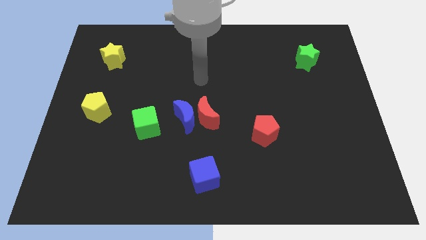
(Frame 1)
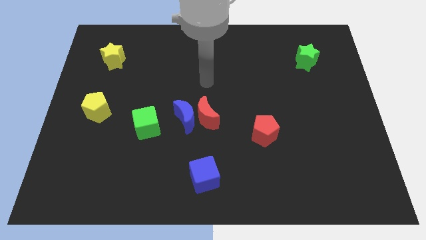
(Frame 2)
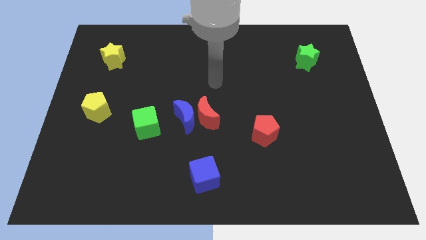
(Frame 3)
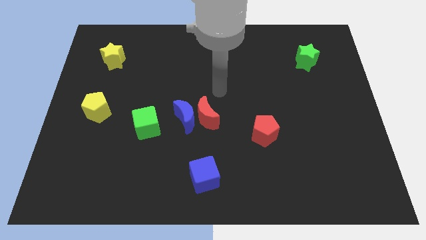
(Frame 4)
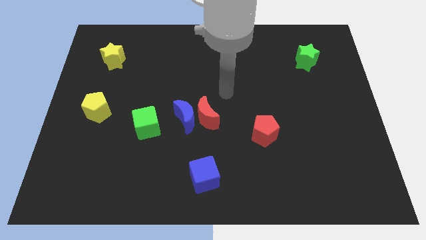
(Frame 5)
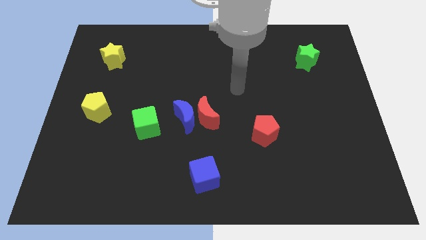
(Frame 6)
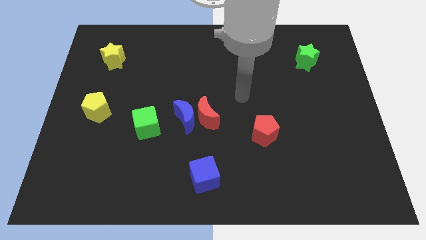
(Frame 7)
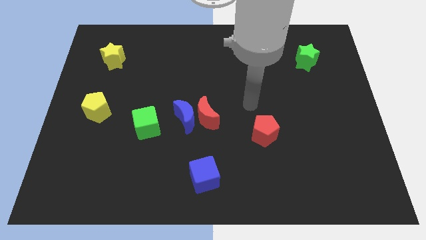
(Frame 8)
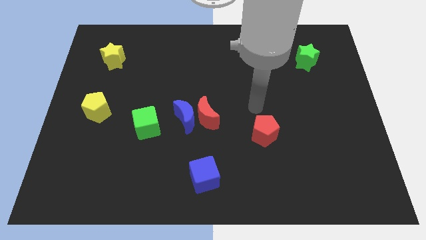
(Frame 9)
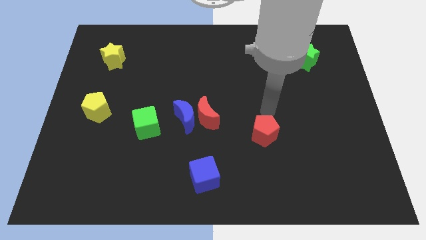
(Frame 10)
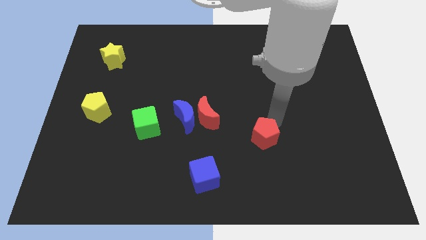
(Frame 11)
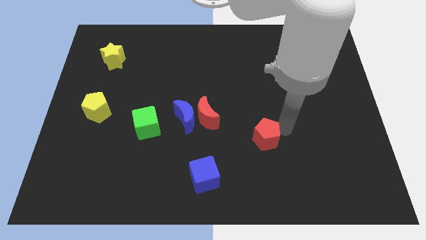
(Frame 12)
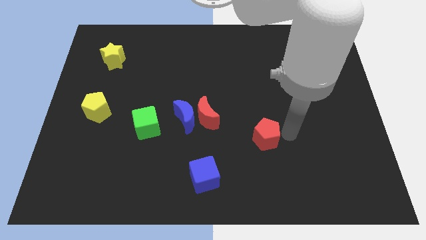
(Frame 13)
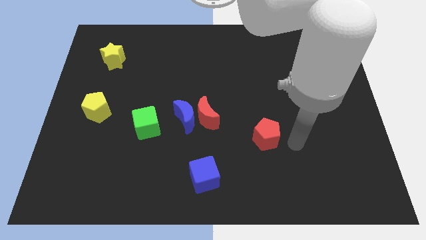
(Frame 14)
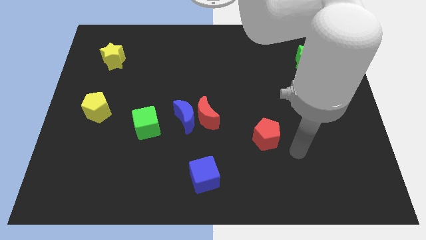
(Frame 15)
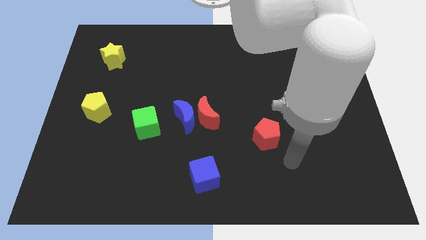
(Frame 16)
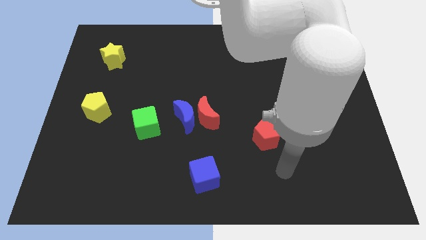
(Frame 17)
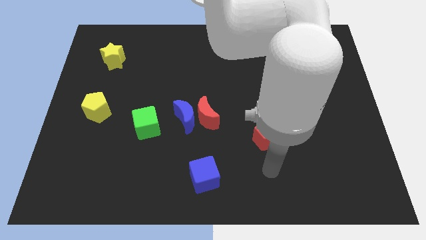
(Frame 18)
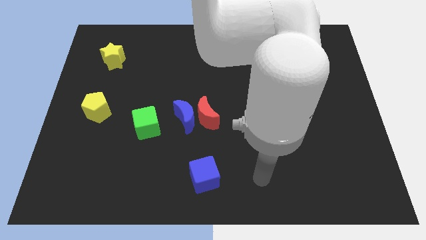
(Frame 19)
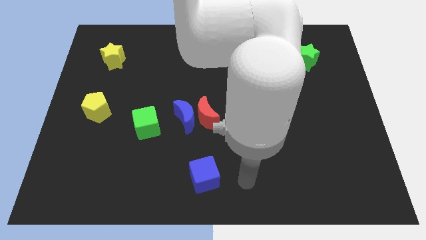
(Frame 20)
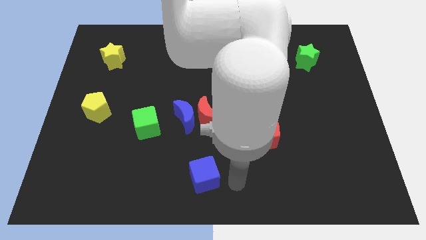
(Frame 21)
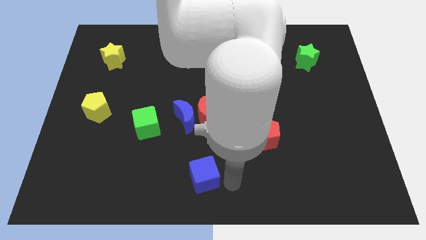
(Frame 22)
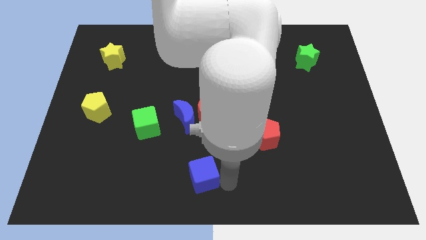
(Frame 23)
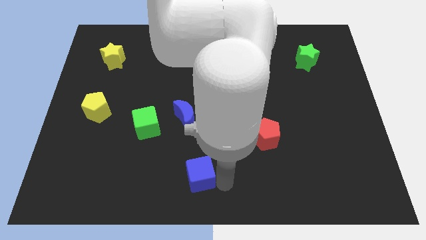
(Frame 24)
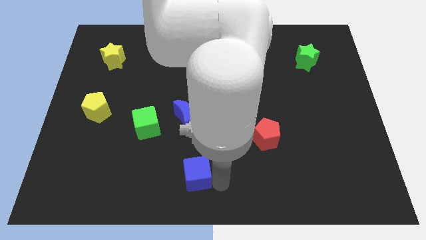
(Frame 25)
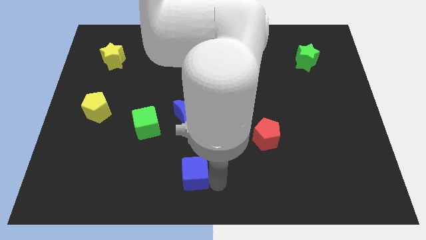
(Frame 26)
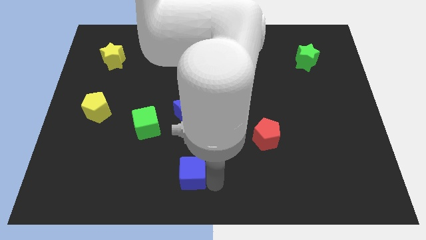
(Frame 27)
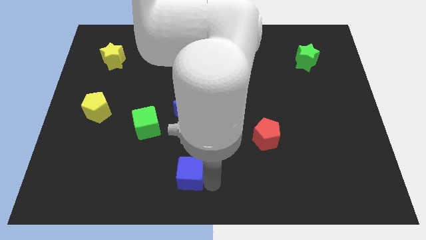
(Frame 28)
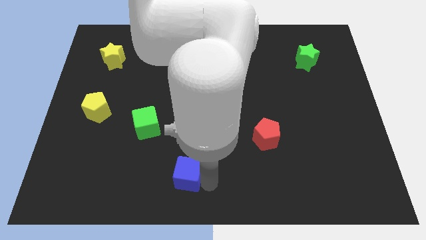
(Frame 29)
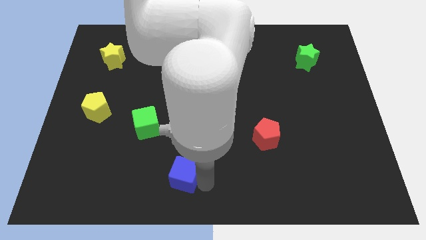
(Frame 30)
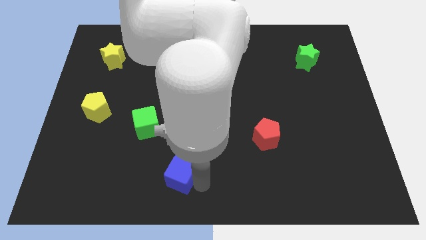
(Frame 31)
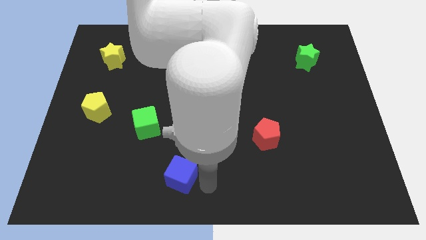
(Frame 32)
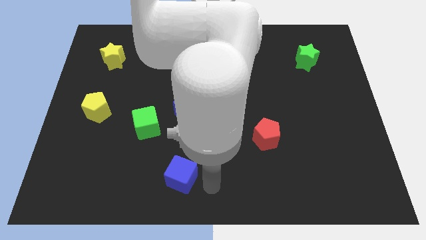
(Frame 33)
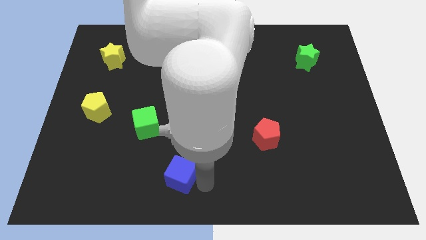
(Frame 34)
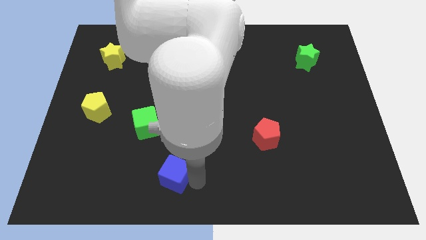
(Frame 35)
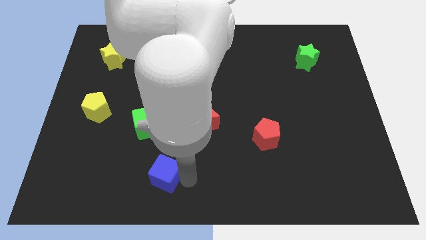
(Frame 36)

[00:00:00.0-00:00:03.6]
slide the blue cube somewhat left

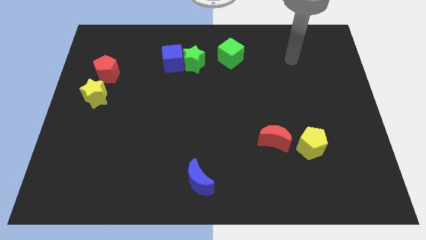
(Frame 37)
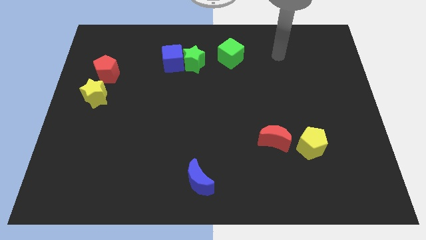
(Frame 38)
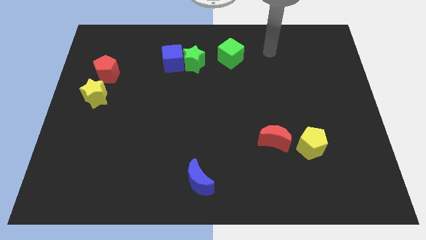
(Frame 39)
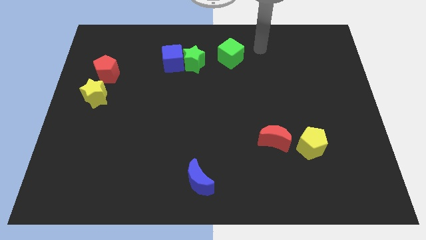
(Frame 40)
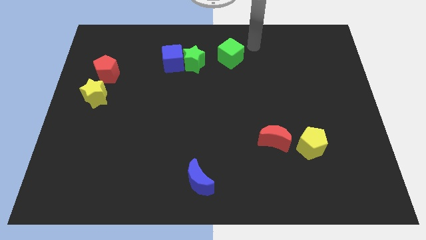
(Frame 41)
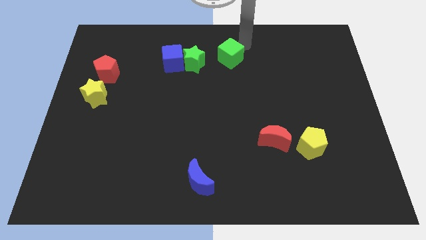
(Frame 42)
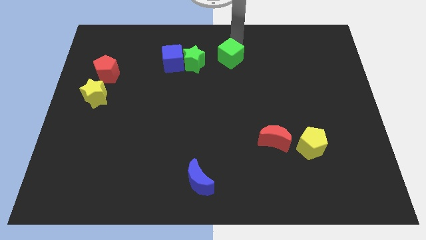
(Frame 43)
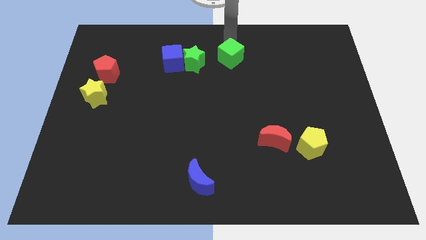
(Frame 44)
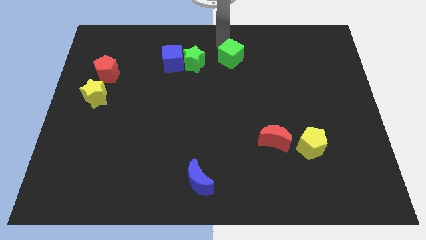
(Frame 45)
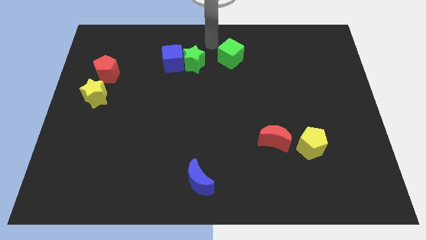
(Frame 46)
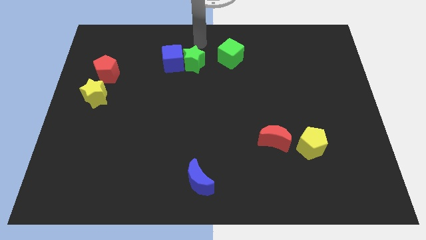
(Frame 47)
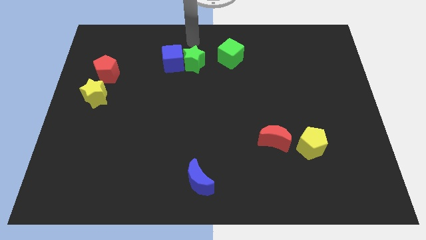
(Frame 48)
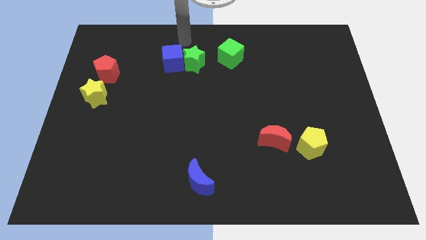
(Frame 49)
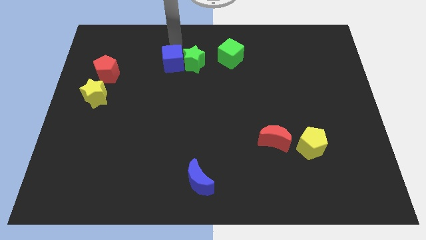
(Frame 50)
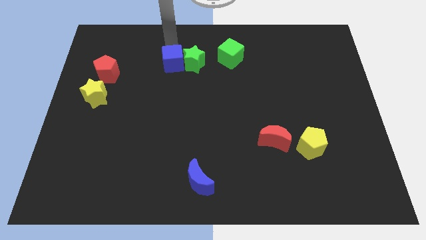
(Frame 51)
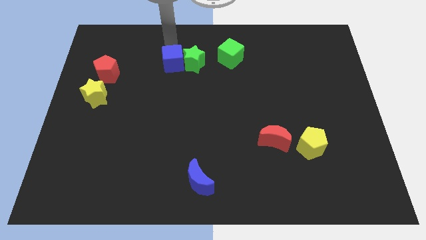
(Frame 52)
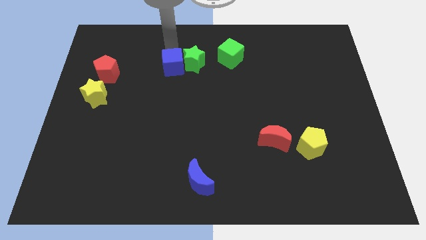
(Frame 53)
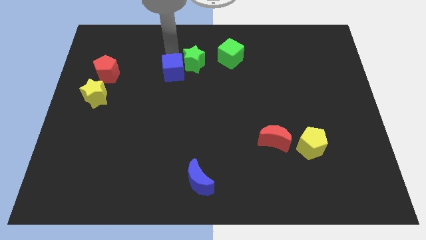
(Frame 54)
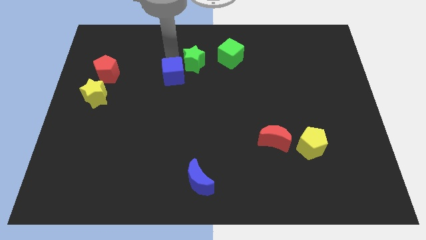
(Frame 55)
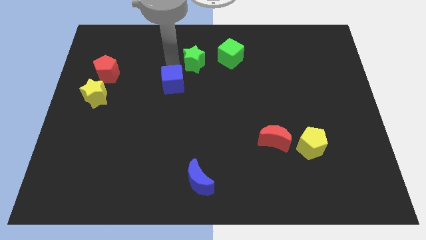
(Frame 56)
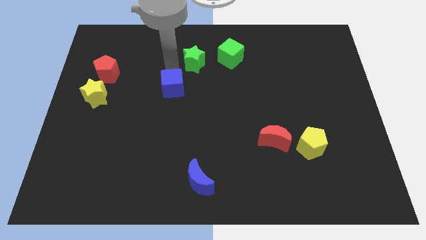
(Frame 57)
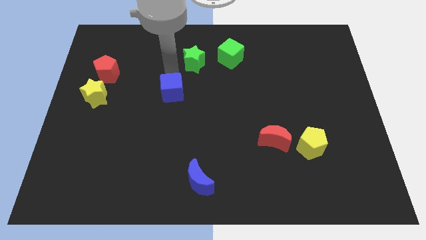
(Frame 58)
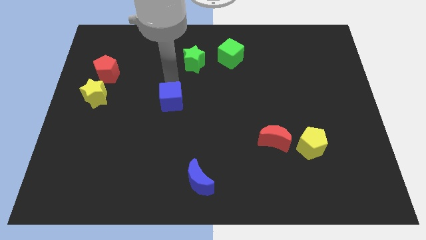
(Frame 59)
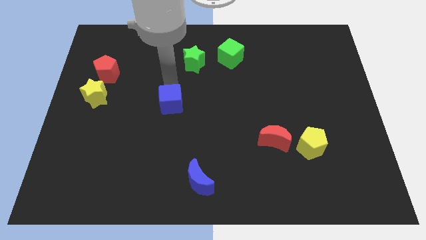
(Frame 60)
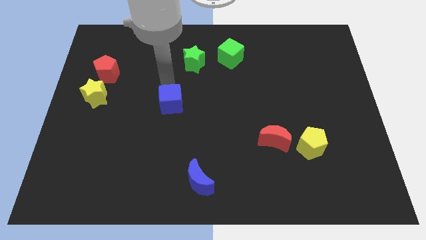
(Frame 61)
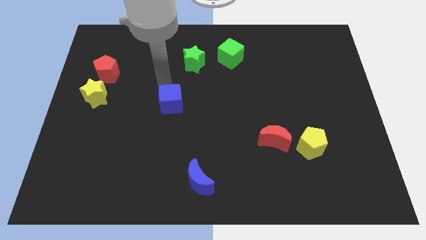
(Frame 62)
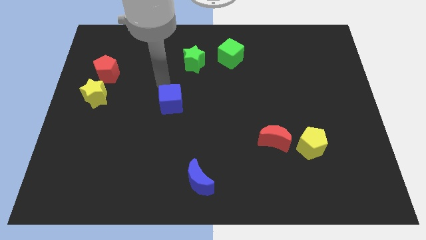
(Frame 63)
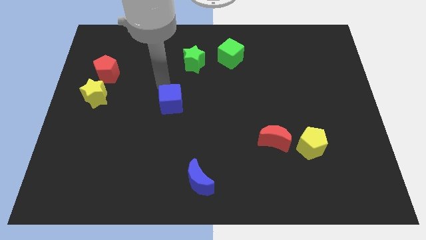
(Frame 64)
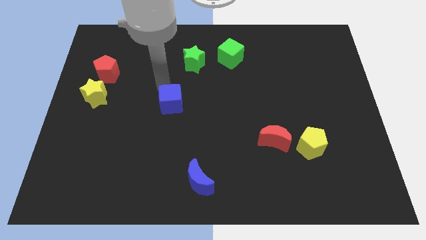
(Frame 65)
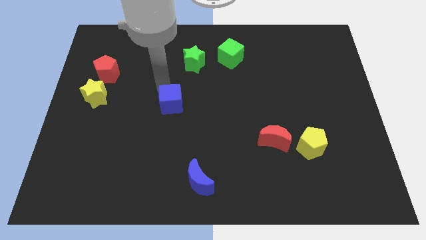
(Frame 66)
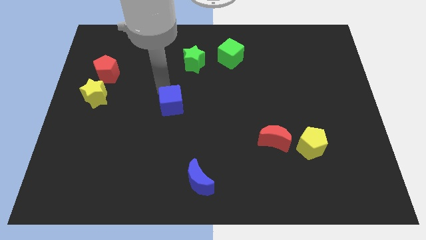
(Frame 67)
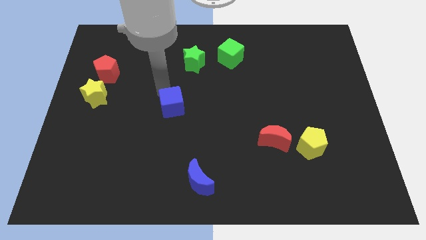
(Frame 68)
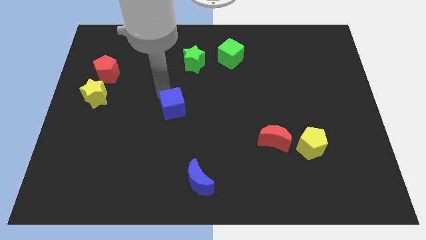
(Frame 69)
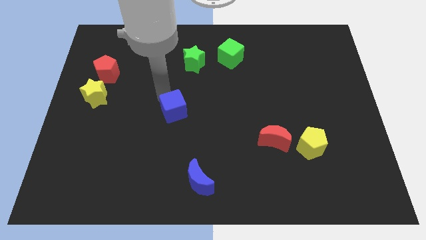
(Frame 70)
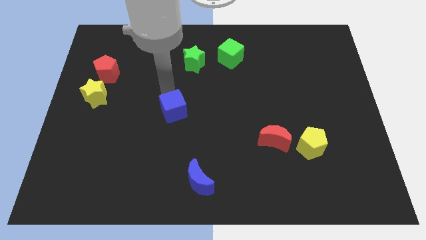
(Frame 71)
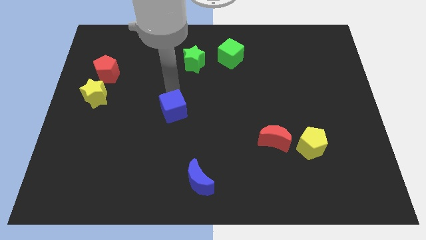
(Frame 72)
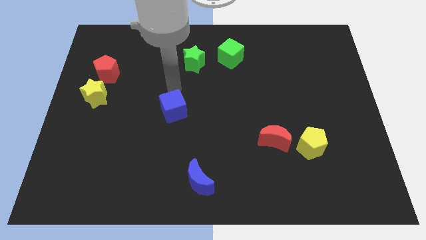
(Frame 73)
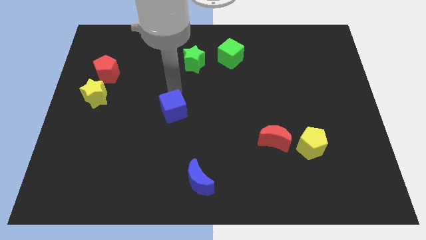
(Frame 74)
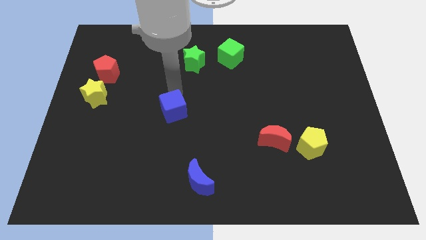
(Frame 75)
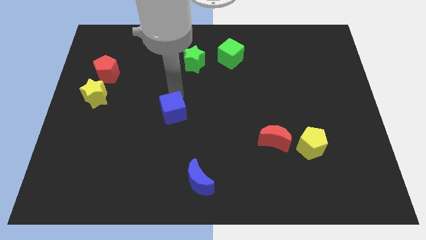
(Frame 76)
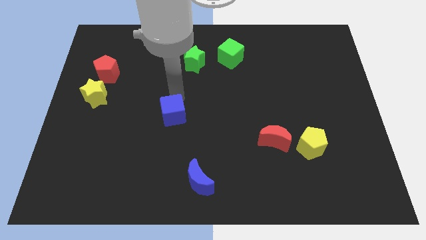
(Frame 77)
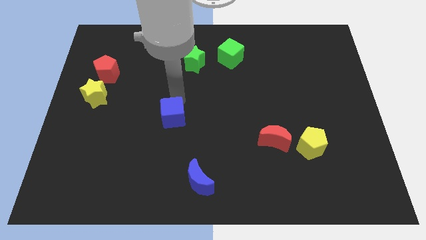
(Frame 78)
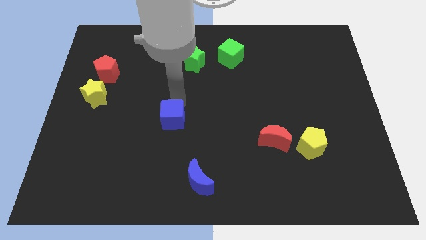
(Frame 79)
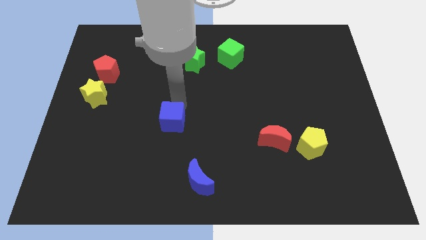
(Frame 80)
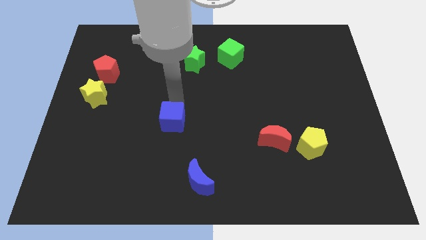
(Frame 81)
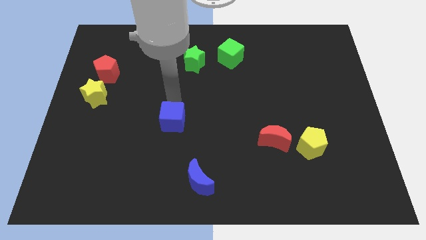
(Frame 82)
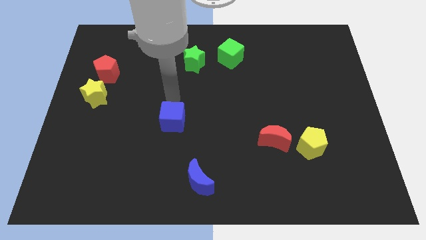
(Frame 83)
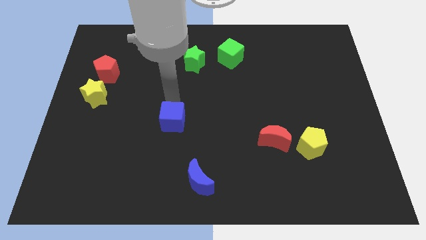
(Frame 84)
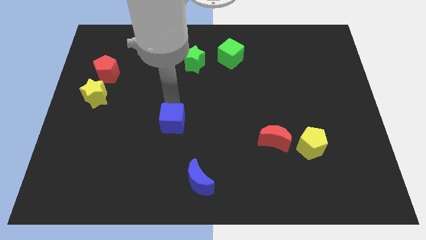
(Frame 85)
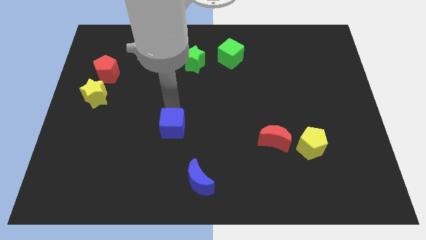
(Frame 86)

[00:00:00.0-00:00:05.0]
move the blue cube downwards
